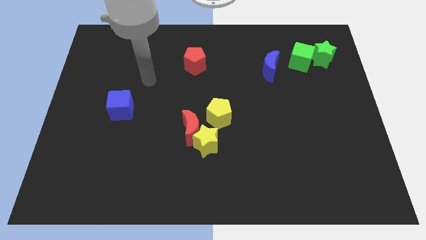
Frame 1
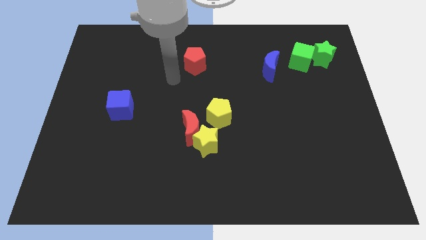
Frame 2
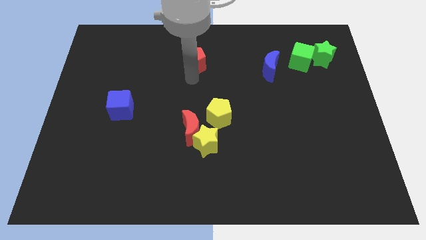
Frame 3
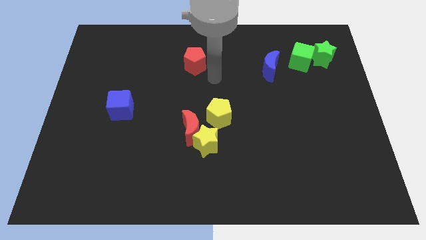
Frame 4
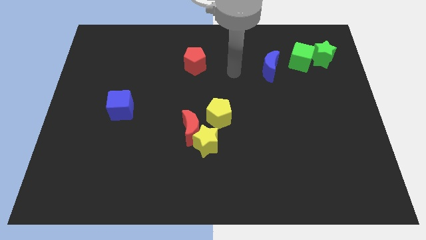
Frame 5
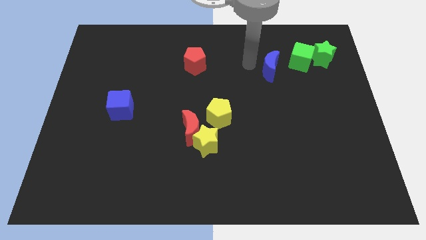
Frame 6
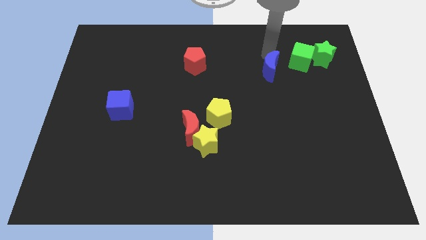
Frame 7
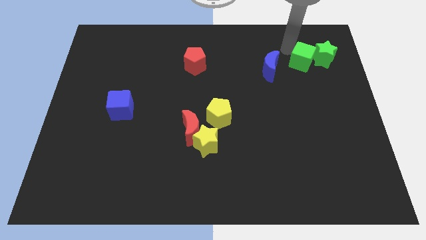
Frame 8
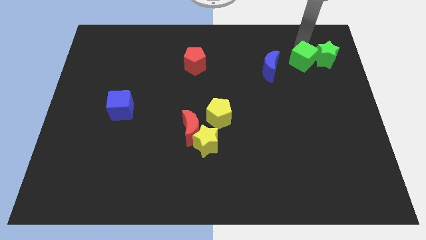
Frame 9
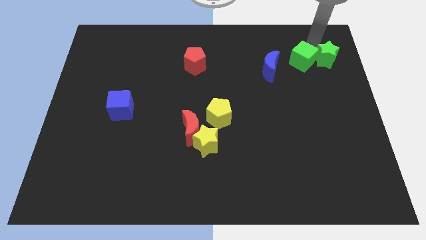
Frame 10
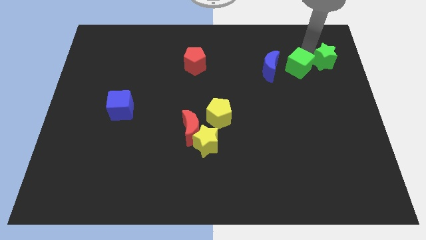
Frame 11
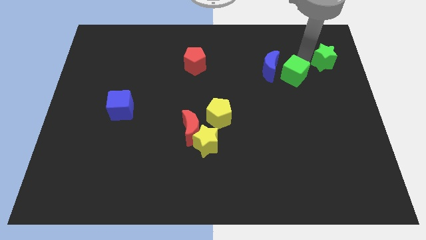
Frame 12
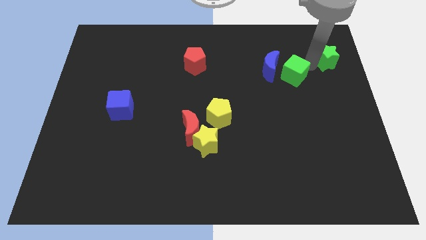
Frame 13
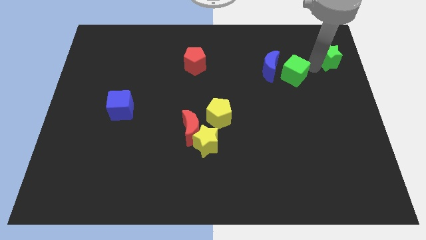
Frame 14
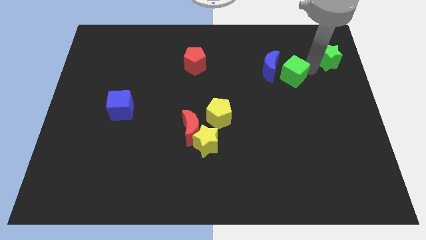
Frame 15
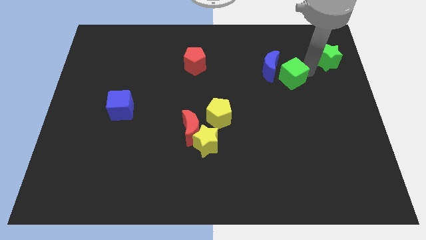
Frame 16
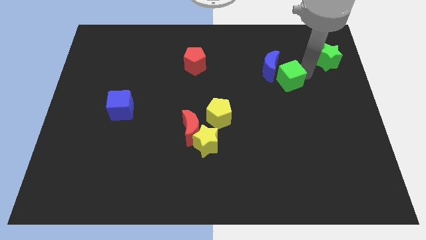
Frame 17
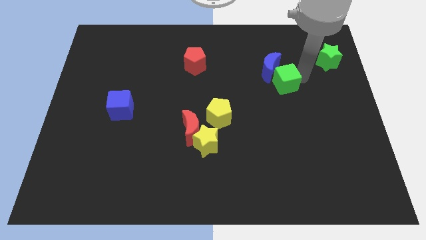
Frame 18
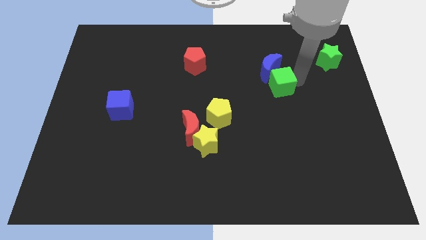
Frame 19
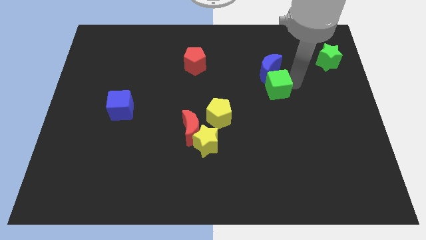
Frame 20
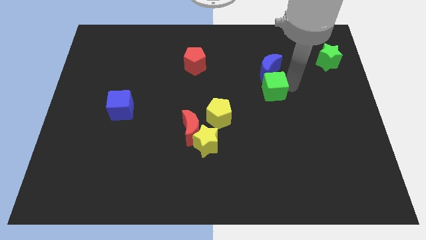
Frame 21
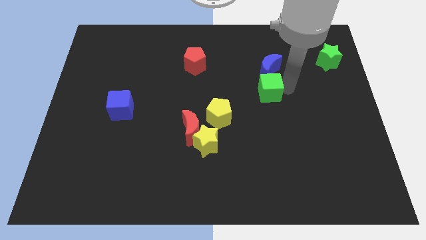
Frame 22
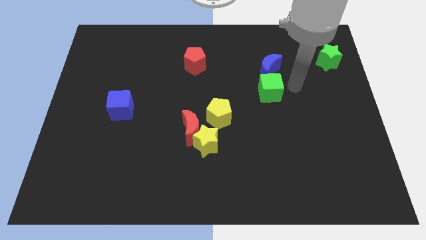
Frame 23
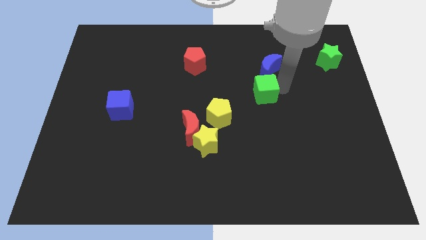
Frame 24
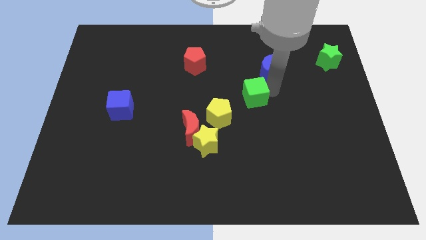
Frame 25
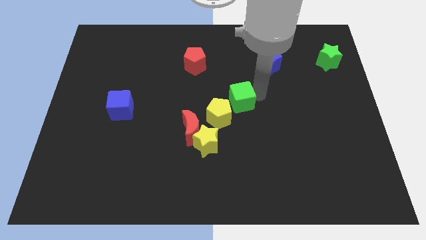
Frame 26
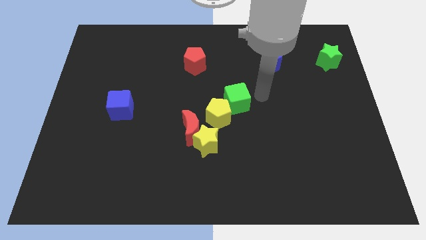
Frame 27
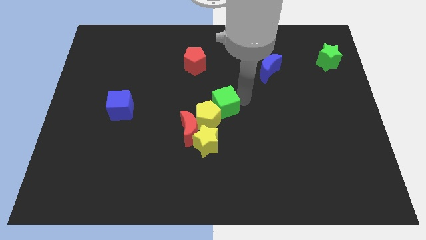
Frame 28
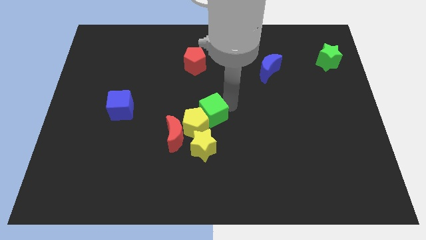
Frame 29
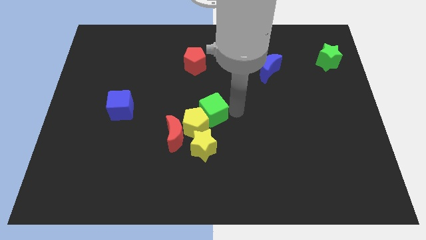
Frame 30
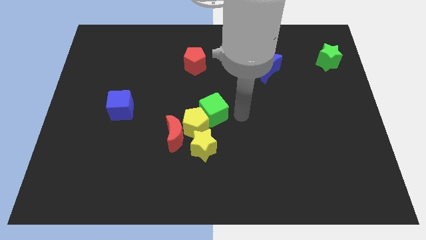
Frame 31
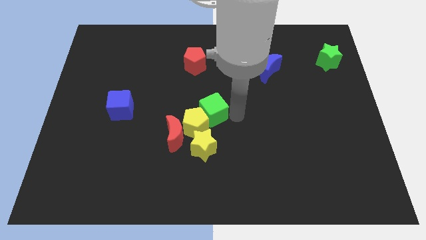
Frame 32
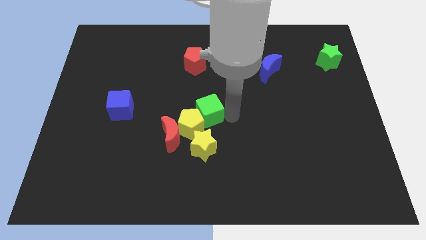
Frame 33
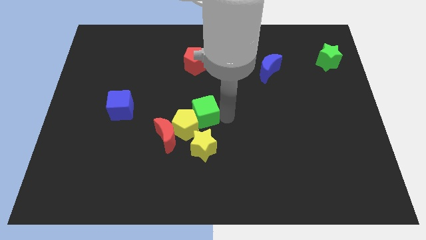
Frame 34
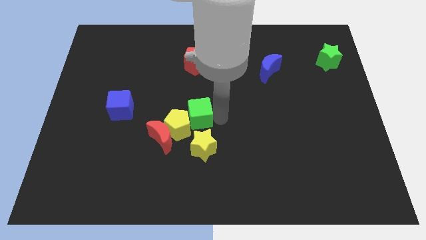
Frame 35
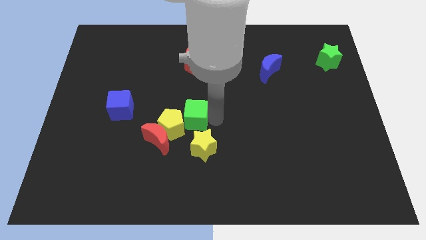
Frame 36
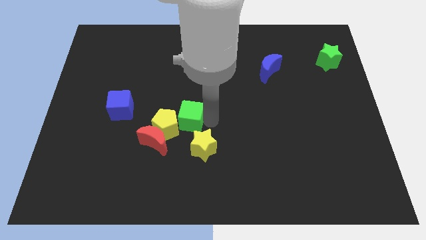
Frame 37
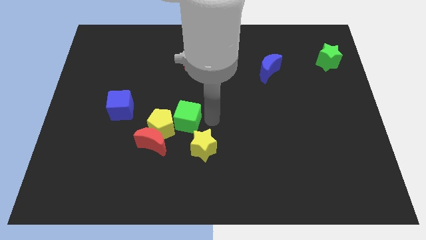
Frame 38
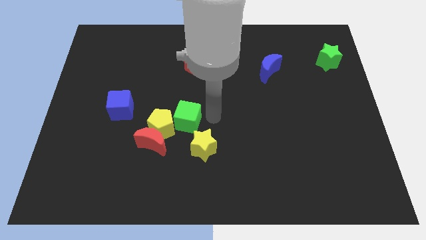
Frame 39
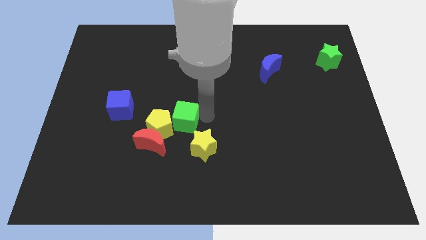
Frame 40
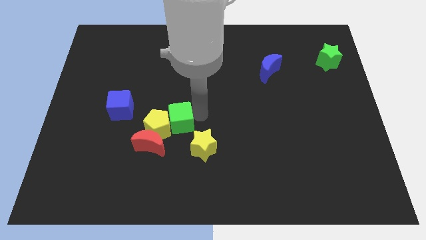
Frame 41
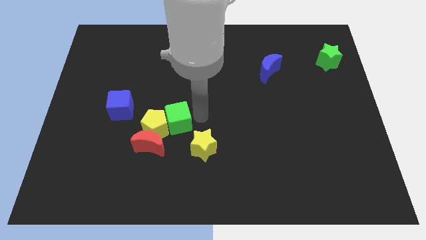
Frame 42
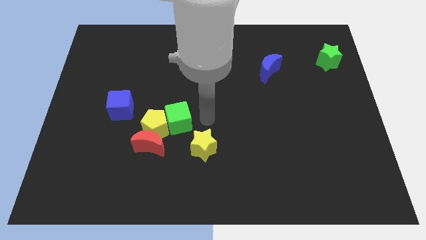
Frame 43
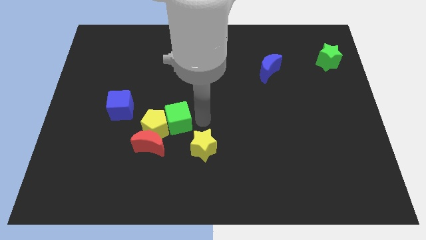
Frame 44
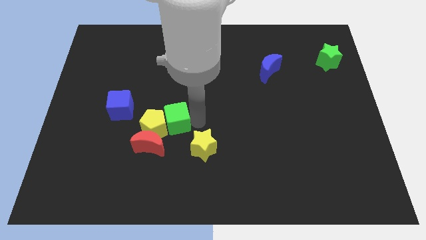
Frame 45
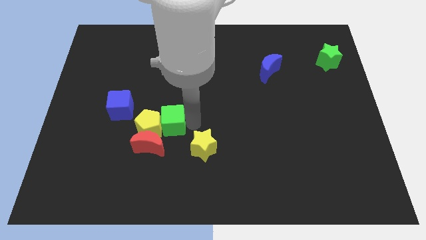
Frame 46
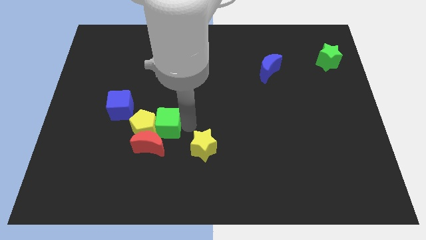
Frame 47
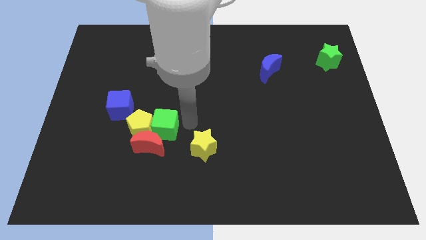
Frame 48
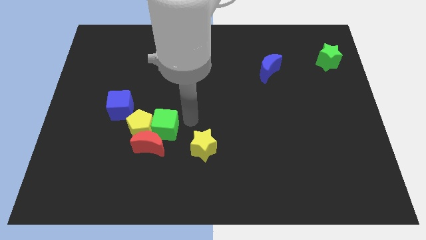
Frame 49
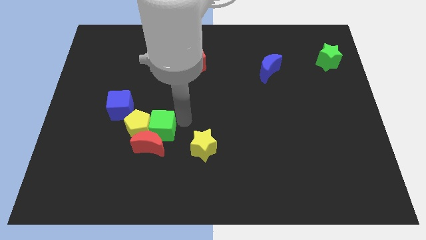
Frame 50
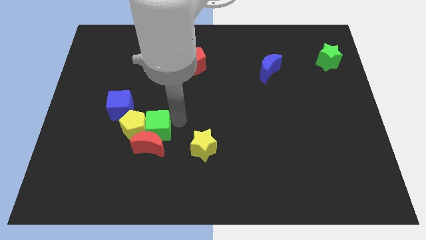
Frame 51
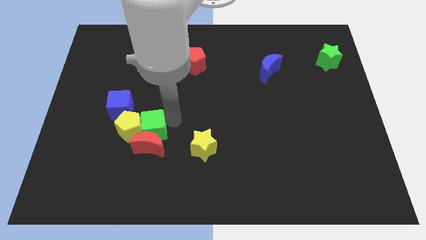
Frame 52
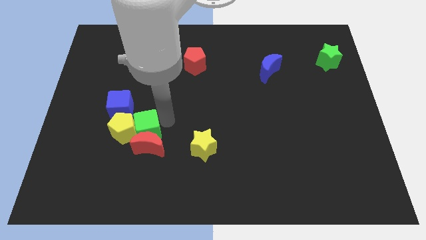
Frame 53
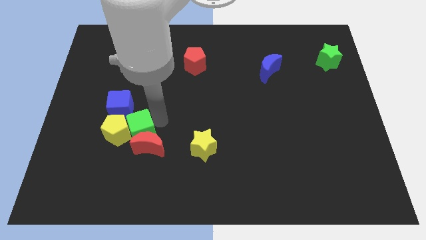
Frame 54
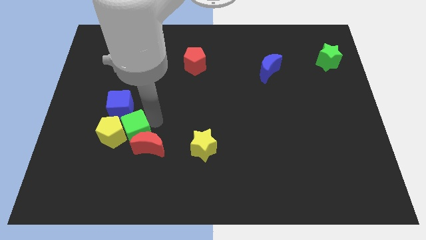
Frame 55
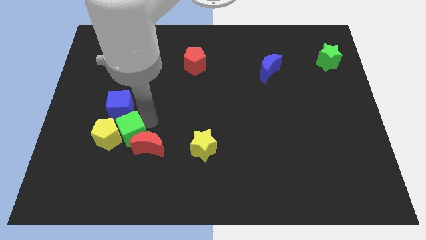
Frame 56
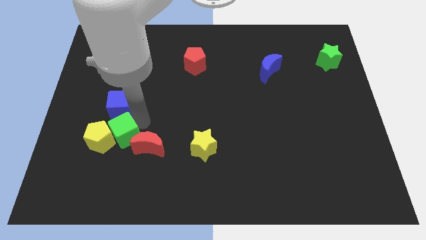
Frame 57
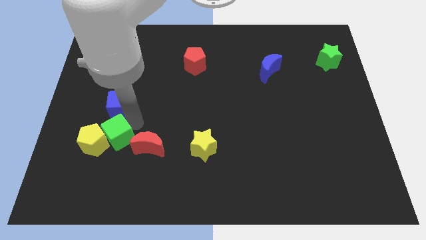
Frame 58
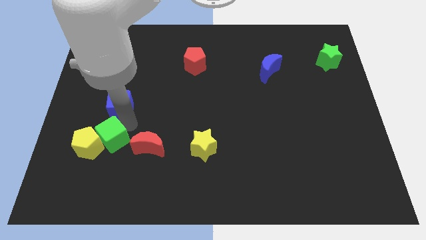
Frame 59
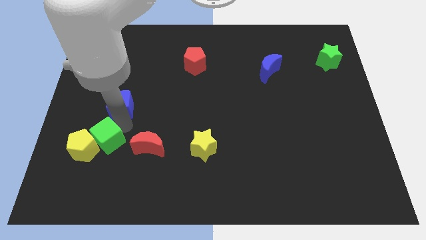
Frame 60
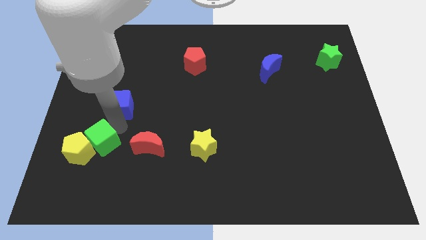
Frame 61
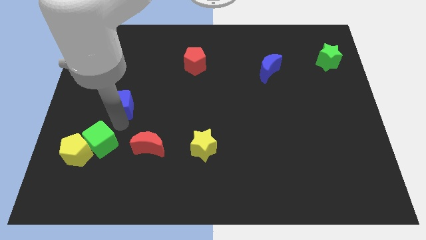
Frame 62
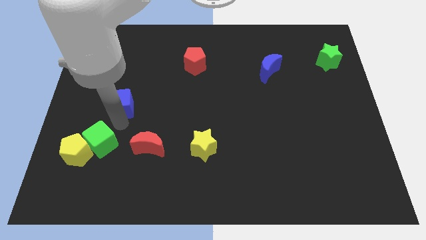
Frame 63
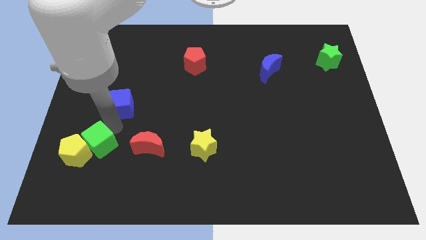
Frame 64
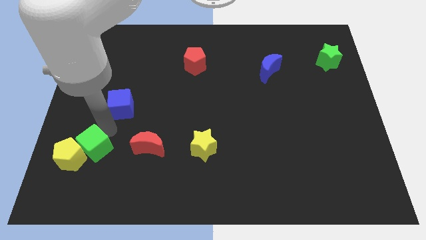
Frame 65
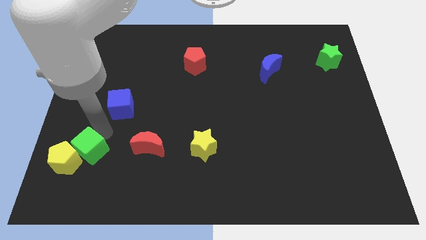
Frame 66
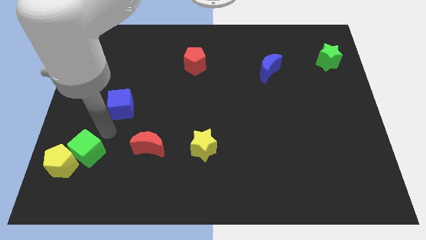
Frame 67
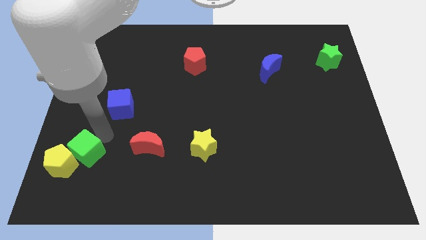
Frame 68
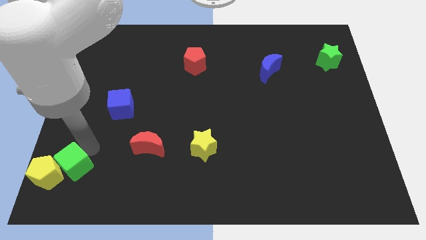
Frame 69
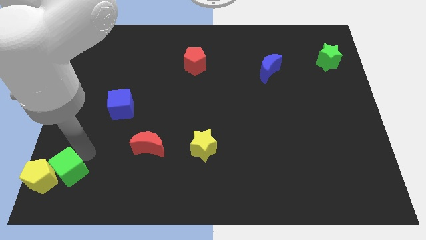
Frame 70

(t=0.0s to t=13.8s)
push the green cube to the bottom left of the board
